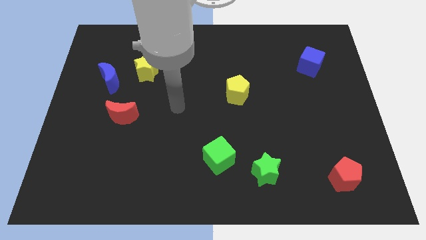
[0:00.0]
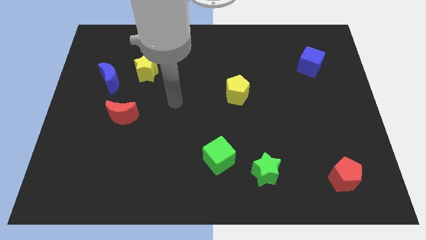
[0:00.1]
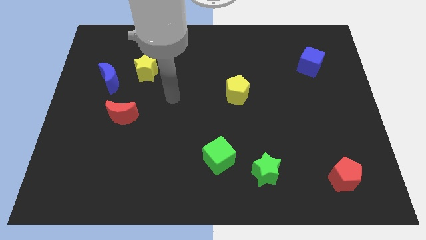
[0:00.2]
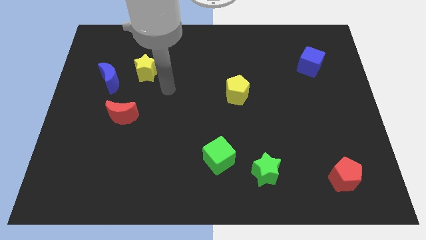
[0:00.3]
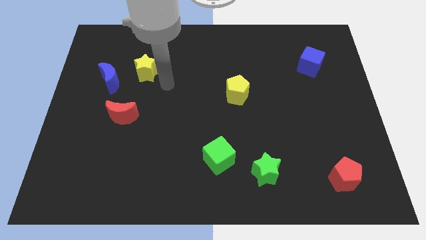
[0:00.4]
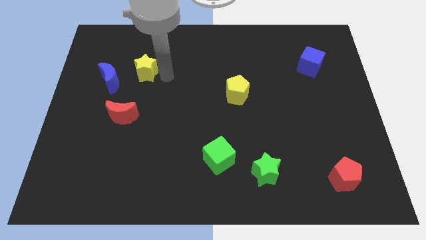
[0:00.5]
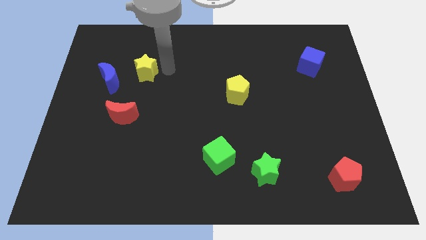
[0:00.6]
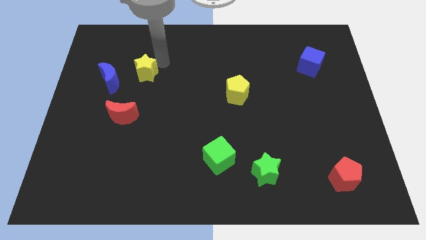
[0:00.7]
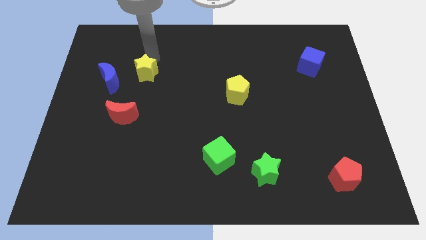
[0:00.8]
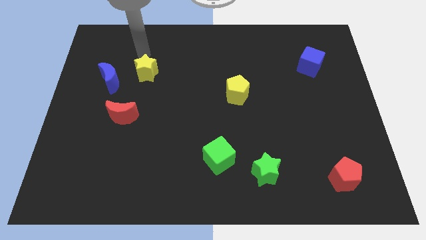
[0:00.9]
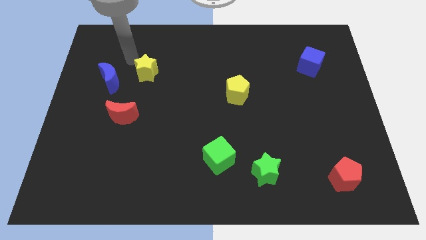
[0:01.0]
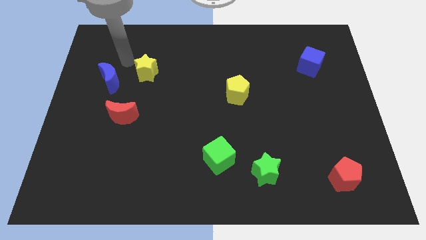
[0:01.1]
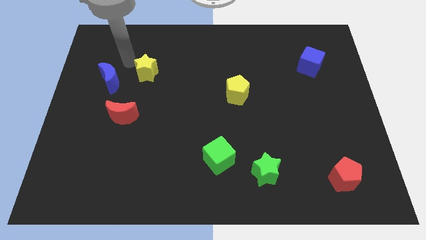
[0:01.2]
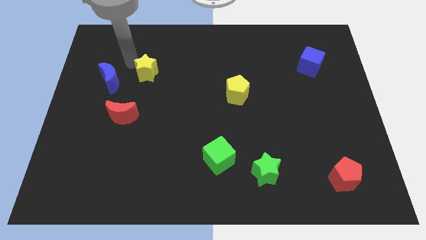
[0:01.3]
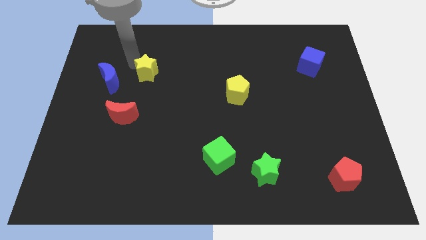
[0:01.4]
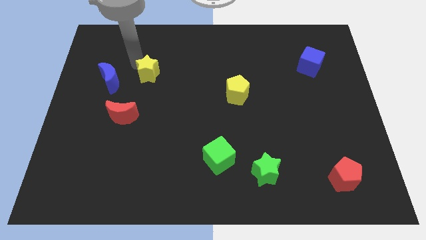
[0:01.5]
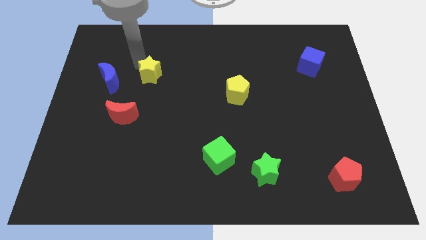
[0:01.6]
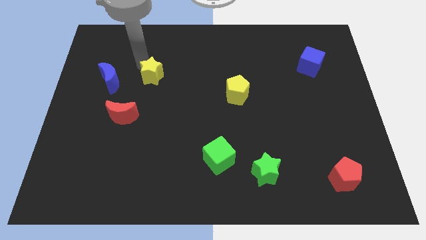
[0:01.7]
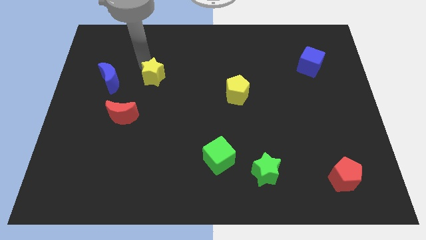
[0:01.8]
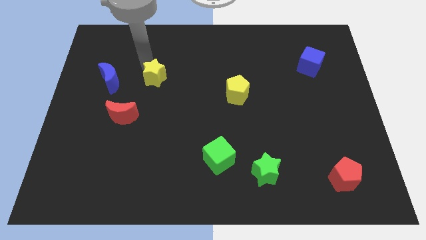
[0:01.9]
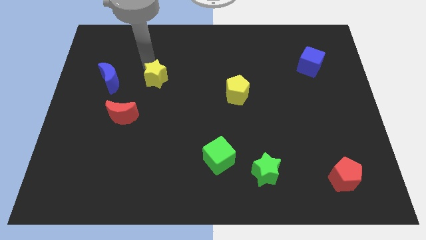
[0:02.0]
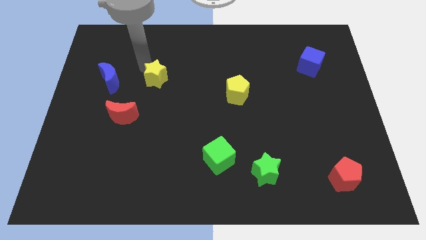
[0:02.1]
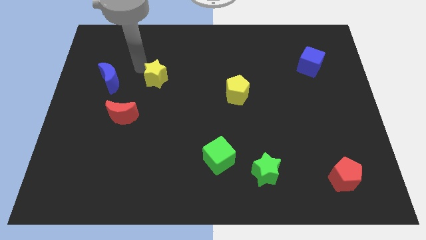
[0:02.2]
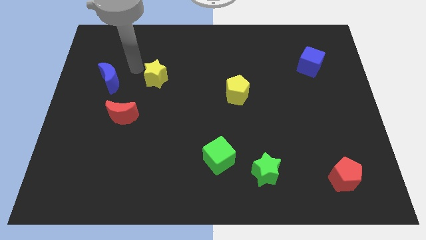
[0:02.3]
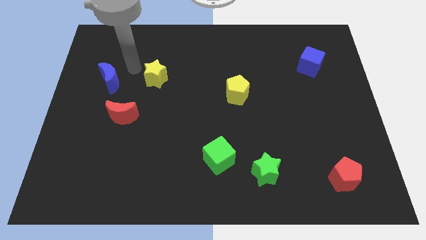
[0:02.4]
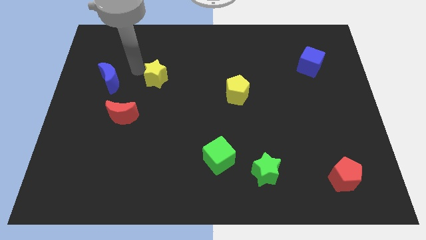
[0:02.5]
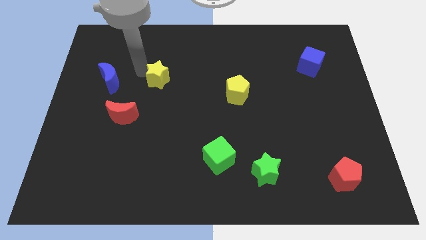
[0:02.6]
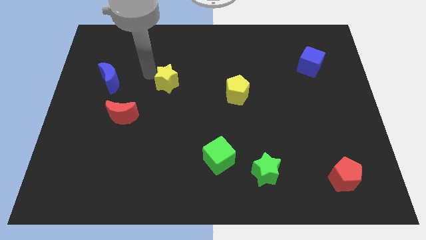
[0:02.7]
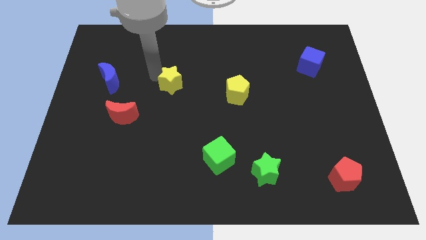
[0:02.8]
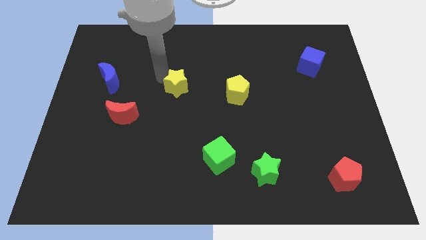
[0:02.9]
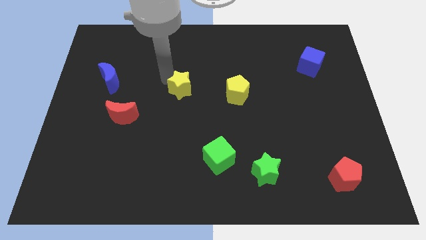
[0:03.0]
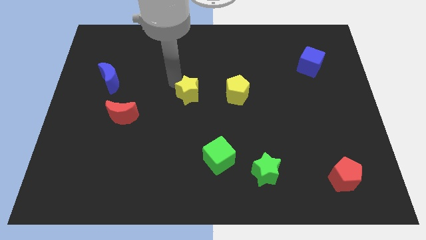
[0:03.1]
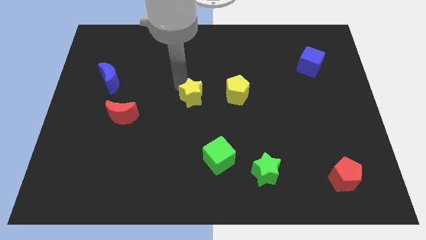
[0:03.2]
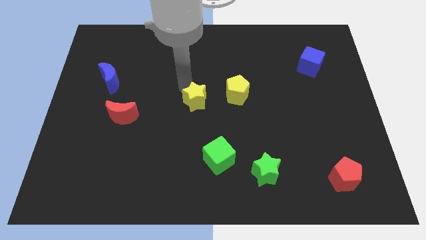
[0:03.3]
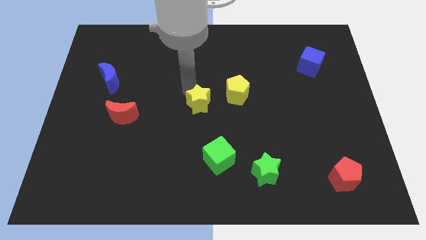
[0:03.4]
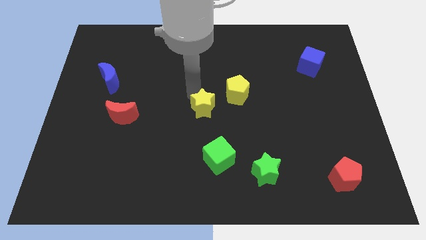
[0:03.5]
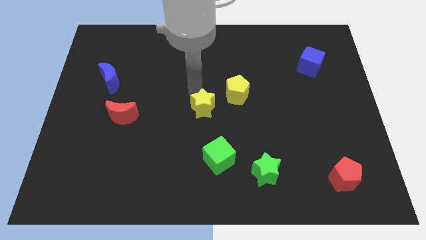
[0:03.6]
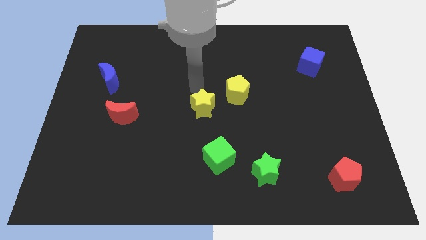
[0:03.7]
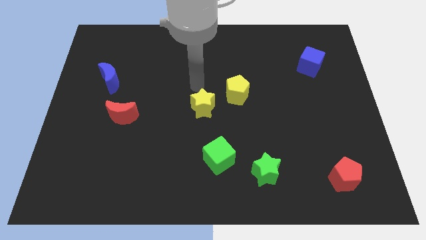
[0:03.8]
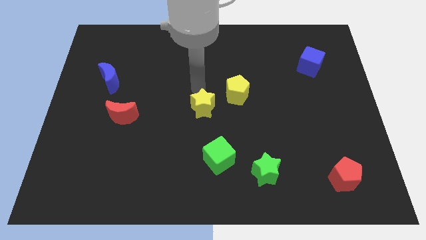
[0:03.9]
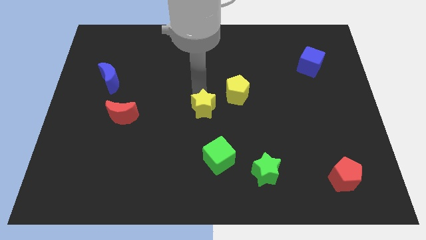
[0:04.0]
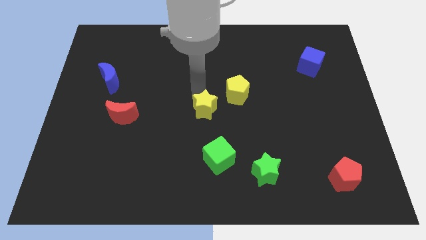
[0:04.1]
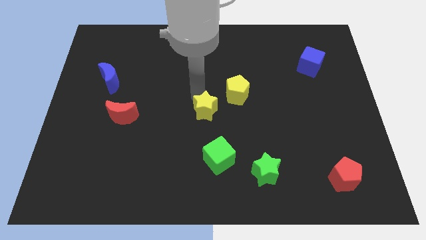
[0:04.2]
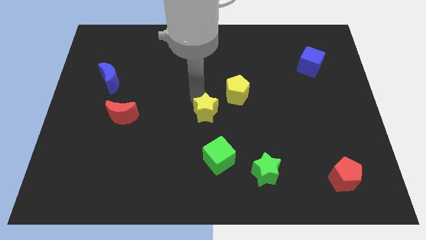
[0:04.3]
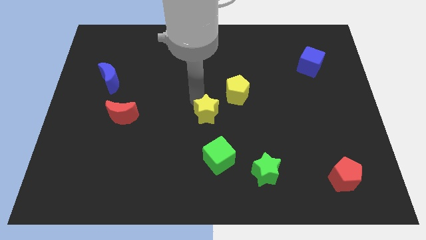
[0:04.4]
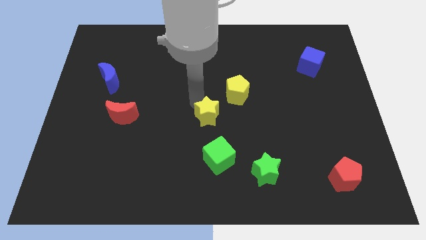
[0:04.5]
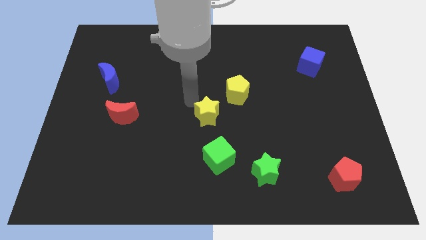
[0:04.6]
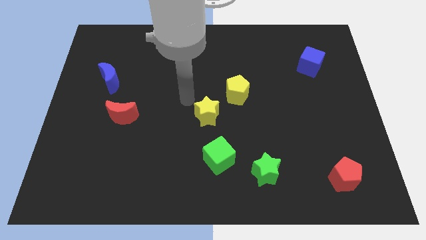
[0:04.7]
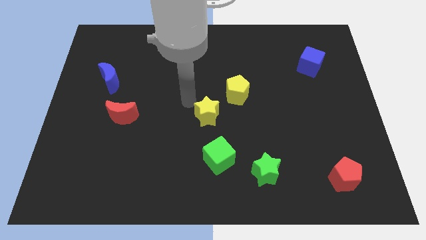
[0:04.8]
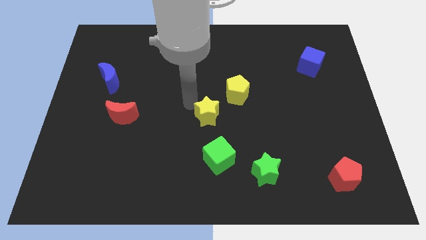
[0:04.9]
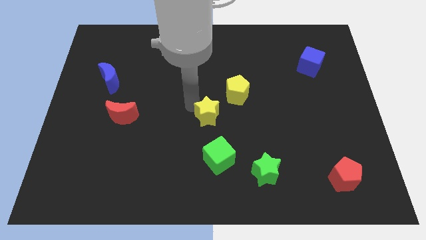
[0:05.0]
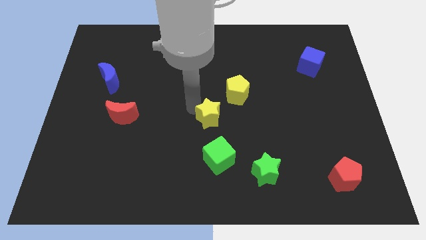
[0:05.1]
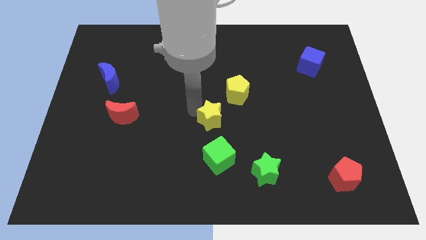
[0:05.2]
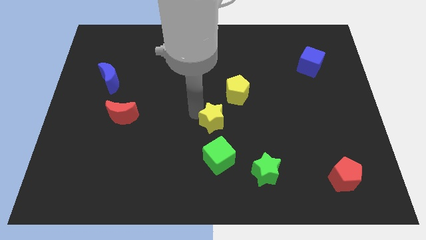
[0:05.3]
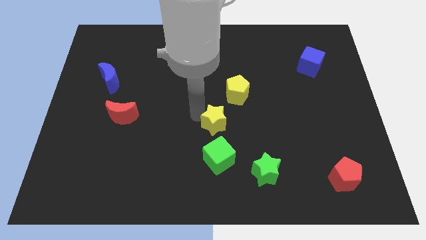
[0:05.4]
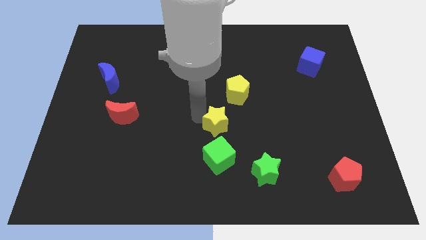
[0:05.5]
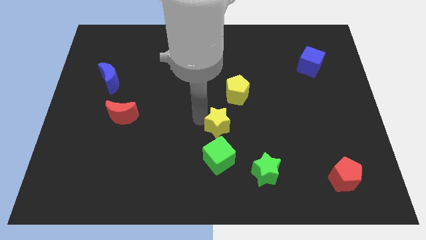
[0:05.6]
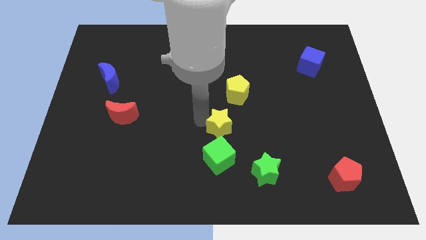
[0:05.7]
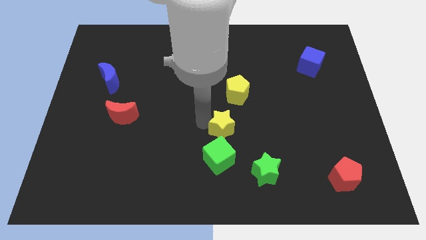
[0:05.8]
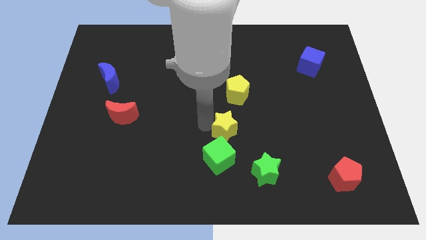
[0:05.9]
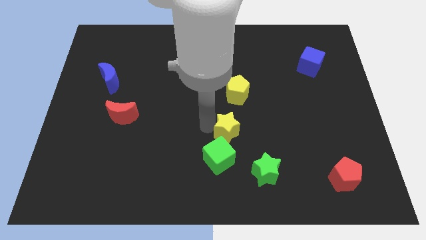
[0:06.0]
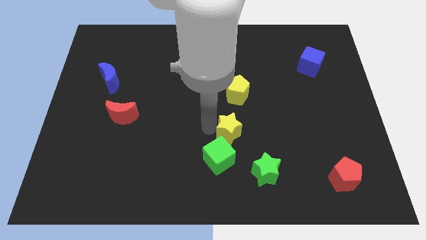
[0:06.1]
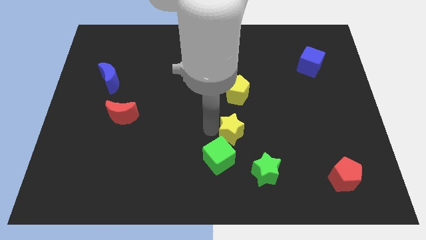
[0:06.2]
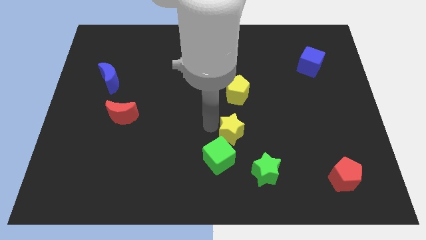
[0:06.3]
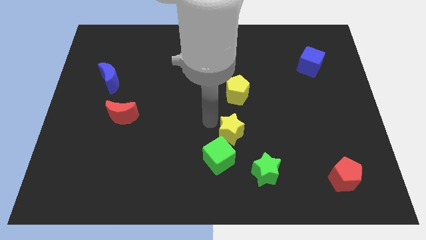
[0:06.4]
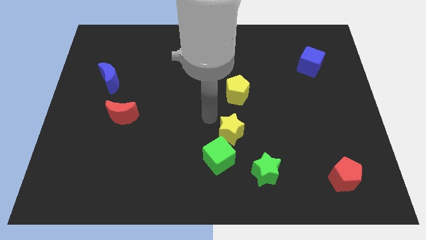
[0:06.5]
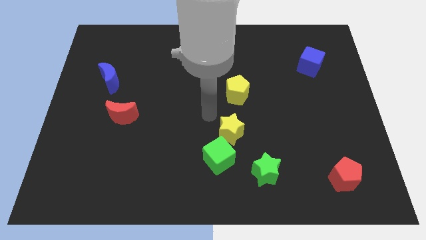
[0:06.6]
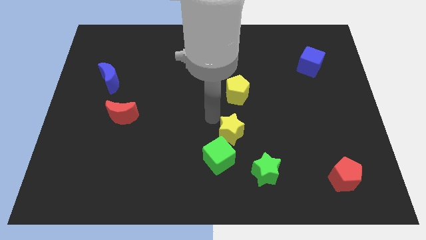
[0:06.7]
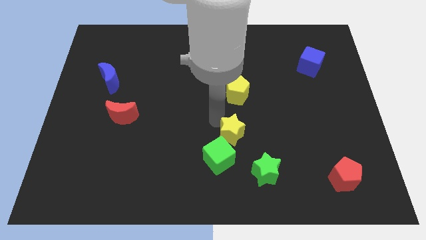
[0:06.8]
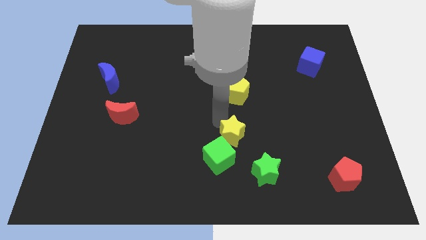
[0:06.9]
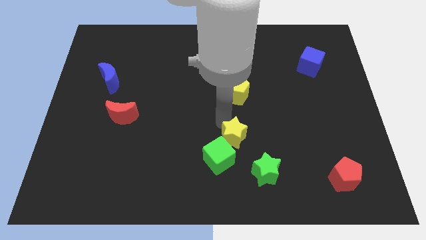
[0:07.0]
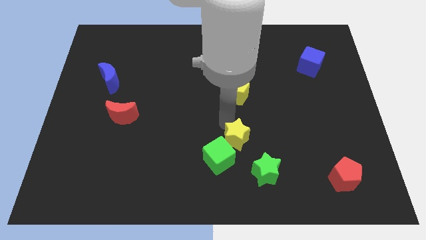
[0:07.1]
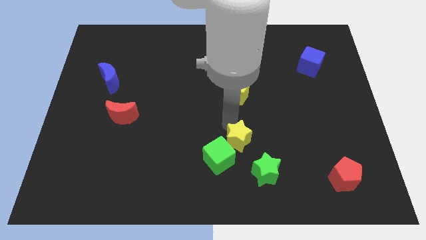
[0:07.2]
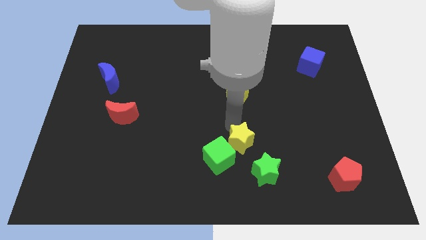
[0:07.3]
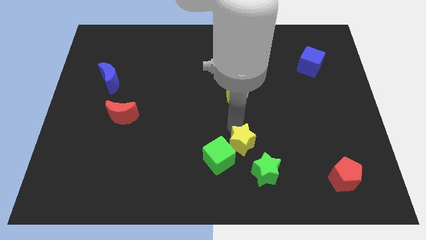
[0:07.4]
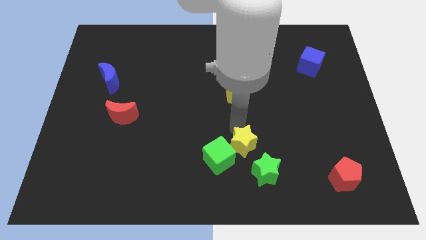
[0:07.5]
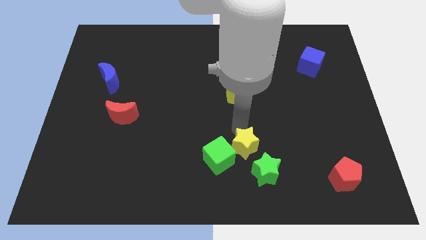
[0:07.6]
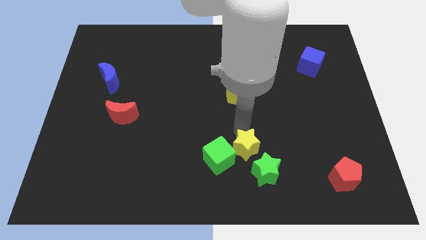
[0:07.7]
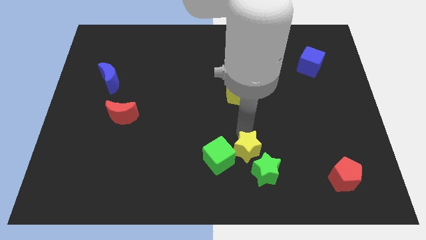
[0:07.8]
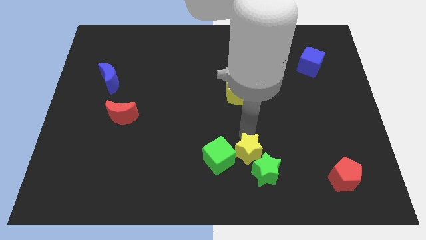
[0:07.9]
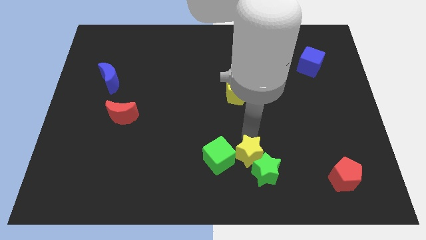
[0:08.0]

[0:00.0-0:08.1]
push the yellow star close to the green star
